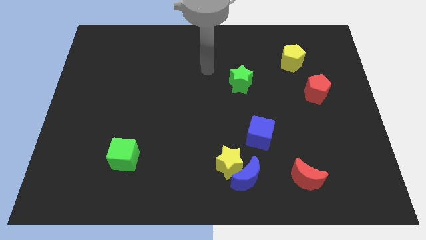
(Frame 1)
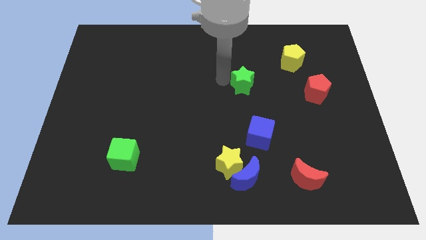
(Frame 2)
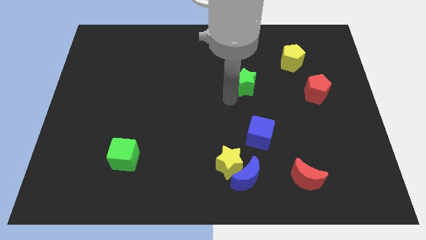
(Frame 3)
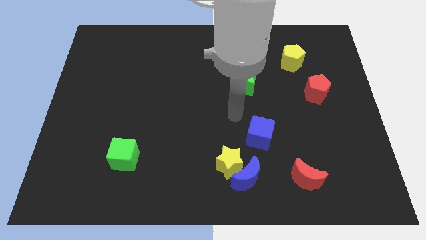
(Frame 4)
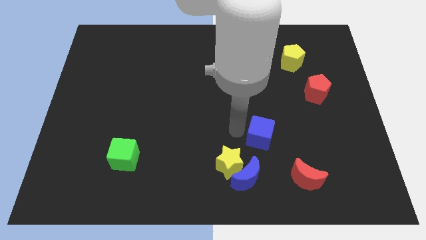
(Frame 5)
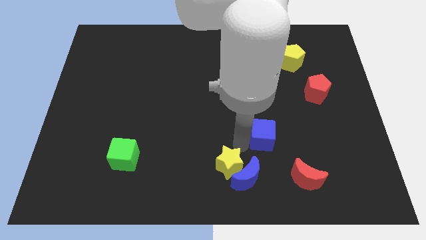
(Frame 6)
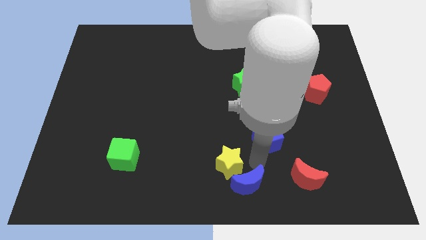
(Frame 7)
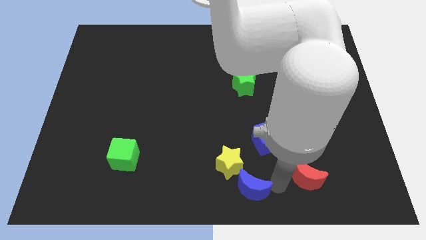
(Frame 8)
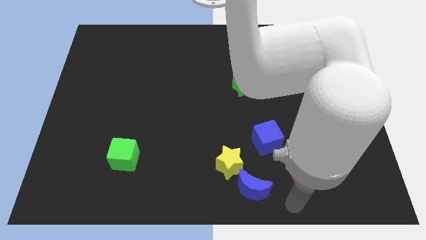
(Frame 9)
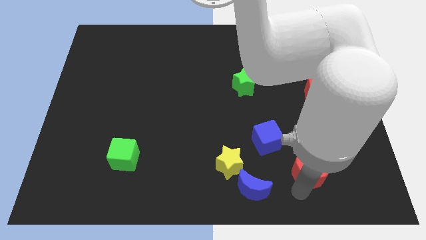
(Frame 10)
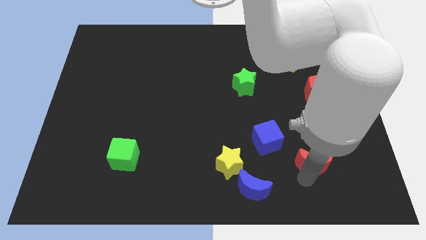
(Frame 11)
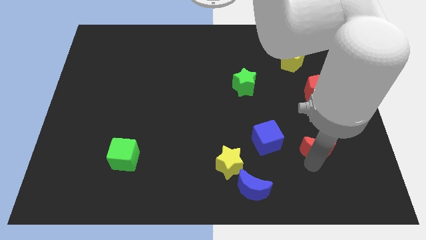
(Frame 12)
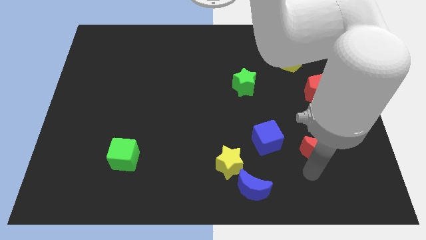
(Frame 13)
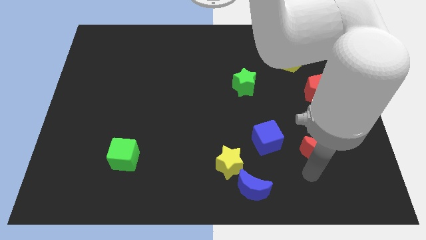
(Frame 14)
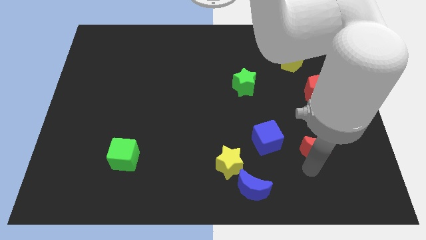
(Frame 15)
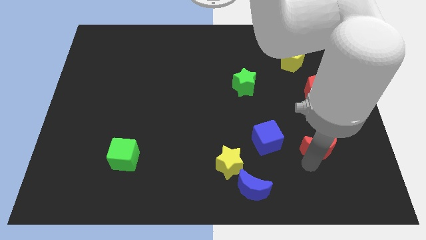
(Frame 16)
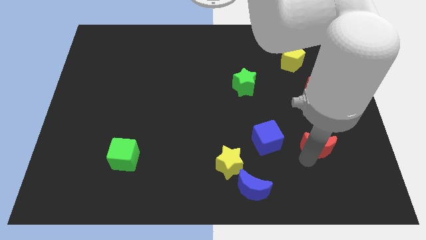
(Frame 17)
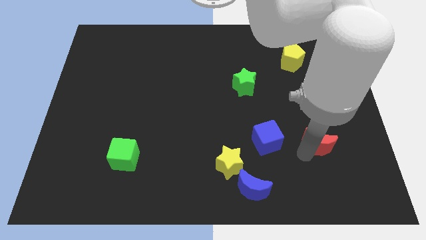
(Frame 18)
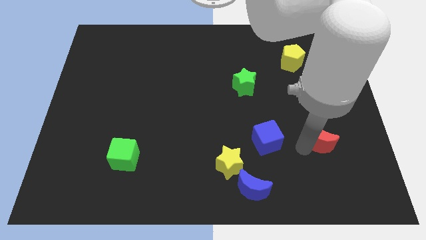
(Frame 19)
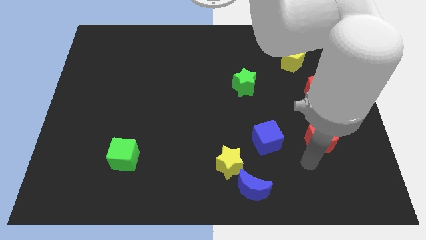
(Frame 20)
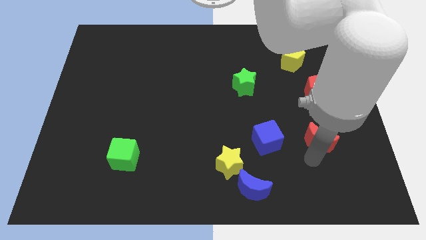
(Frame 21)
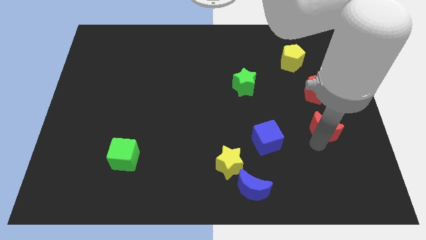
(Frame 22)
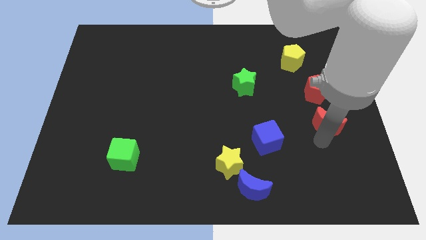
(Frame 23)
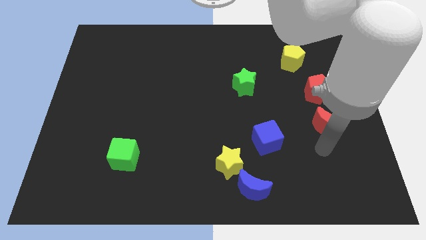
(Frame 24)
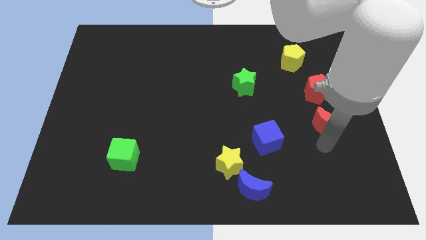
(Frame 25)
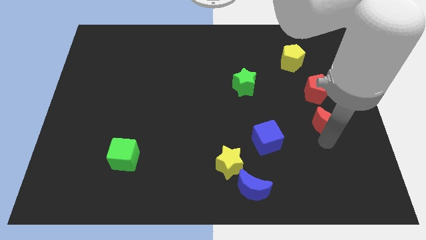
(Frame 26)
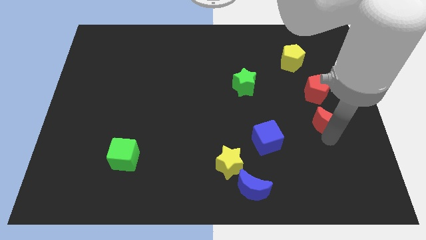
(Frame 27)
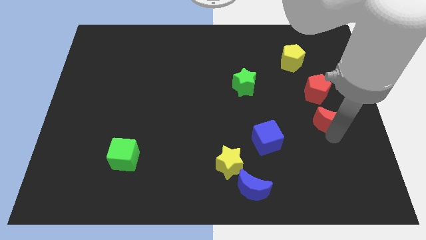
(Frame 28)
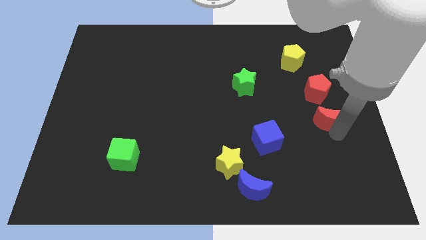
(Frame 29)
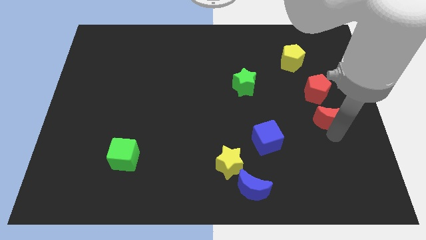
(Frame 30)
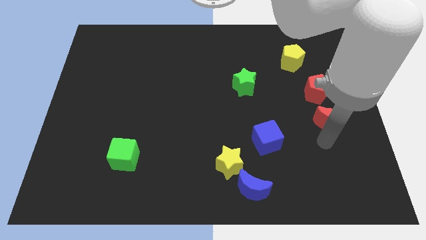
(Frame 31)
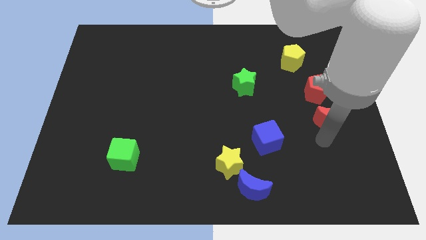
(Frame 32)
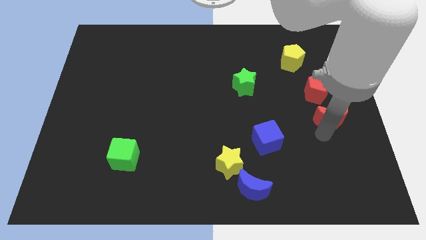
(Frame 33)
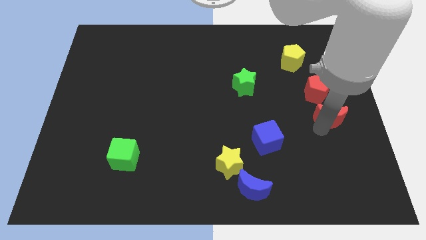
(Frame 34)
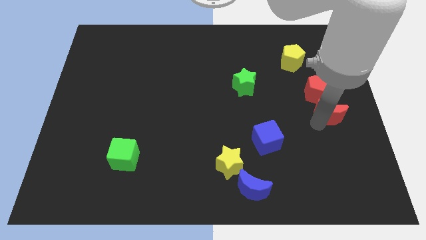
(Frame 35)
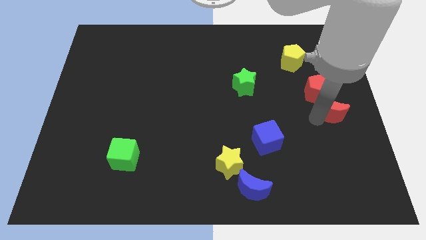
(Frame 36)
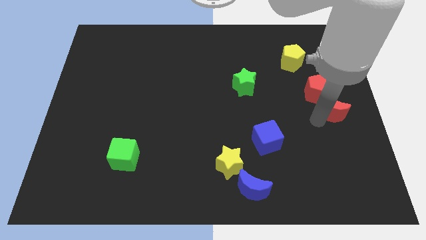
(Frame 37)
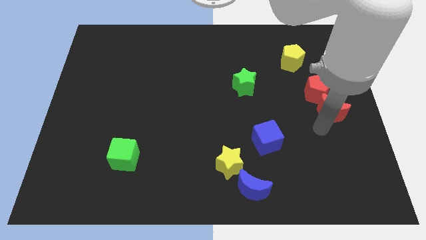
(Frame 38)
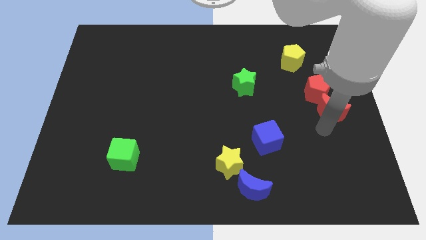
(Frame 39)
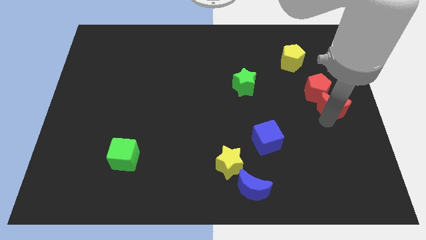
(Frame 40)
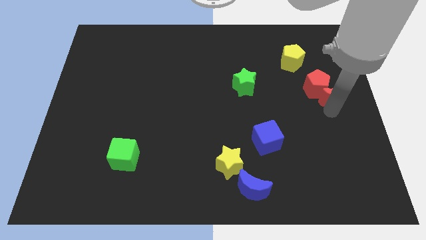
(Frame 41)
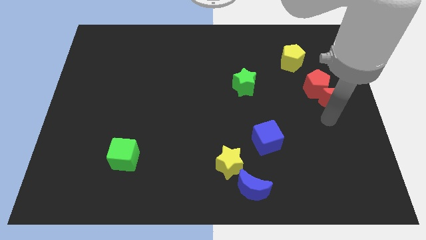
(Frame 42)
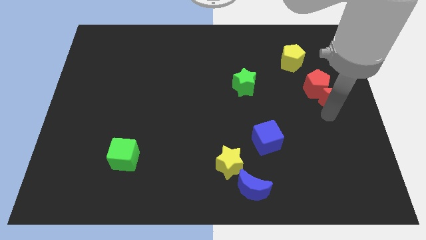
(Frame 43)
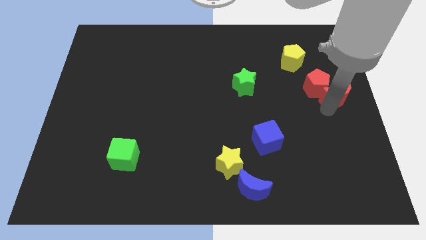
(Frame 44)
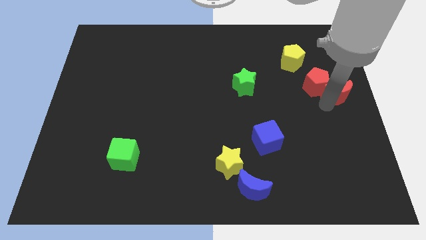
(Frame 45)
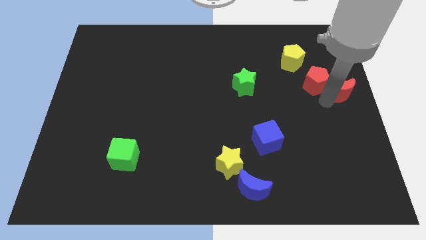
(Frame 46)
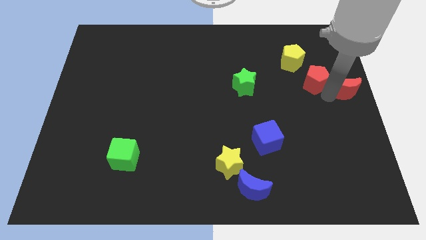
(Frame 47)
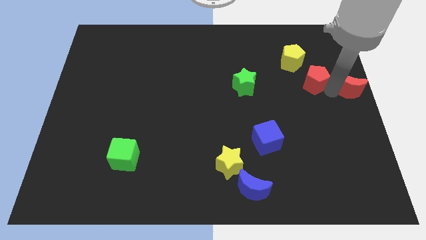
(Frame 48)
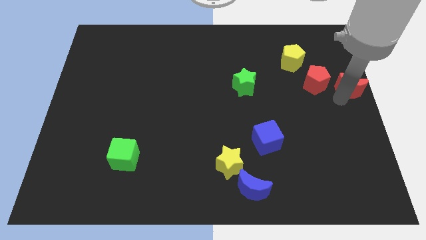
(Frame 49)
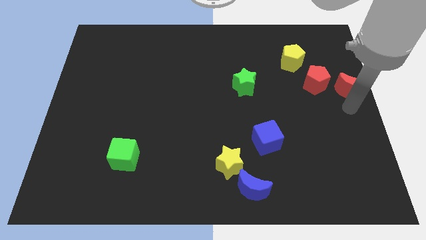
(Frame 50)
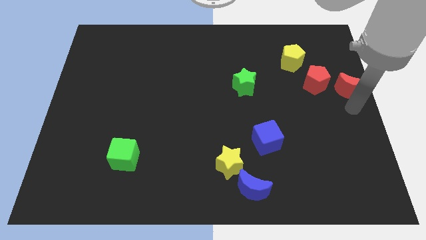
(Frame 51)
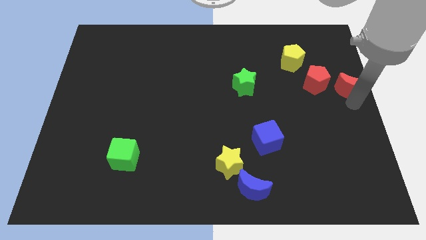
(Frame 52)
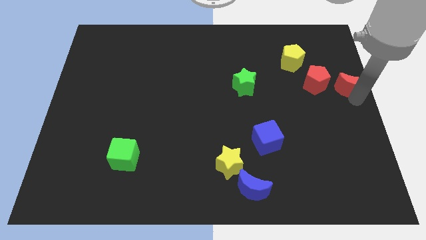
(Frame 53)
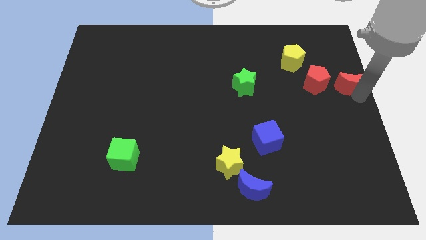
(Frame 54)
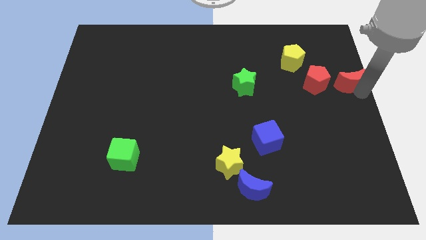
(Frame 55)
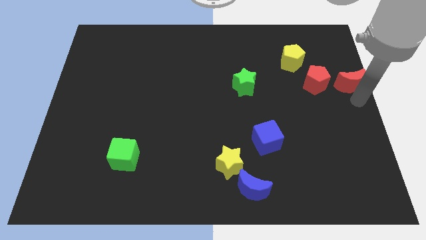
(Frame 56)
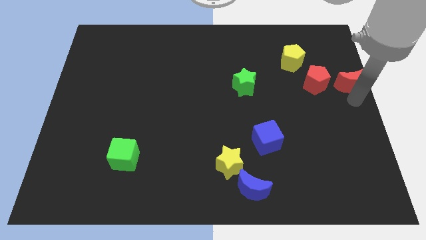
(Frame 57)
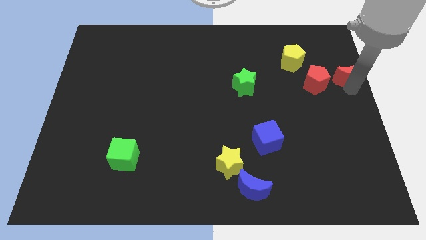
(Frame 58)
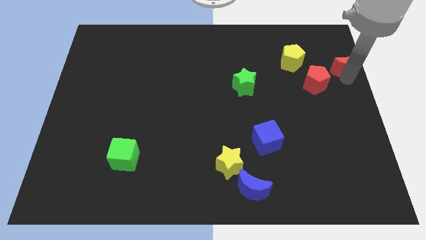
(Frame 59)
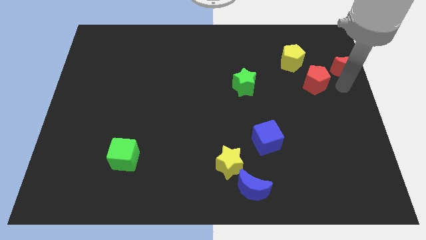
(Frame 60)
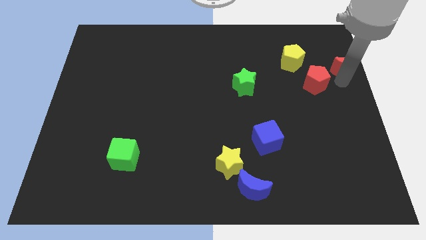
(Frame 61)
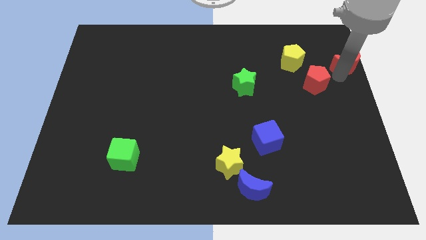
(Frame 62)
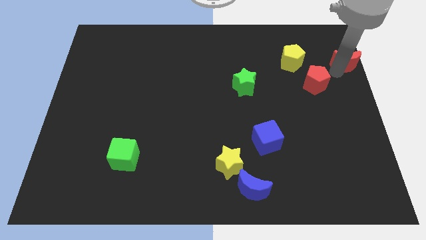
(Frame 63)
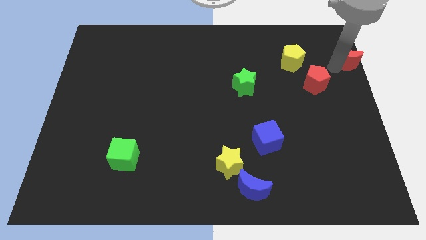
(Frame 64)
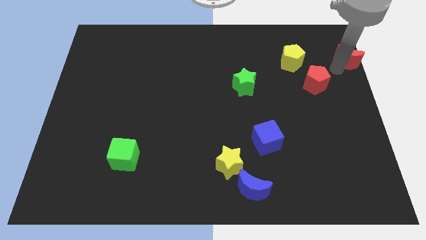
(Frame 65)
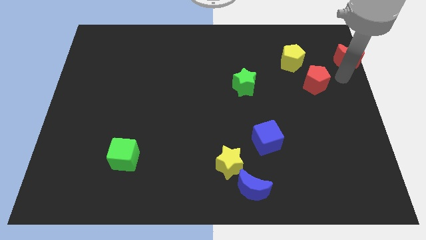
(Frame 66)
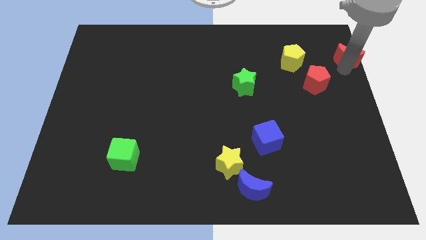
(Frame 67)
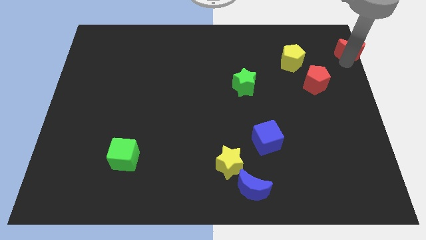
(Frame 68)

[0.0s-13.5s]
put the red moon to the top right
